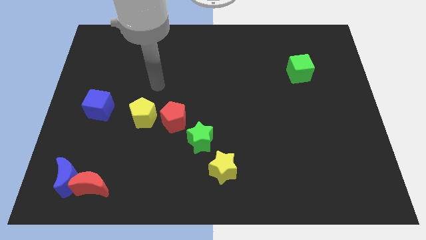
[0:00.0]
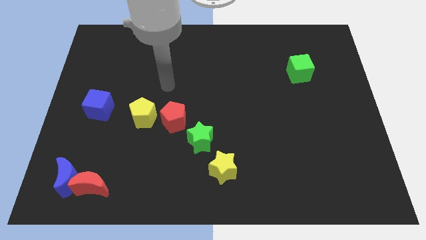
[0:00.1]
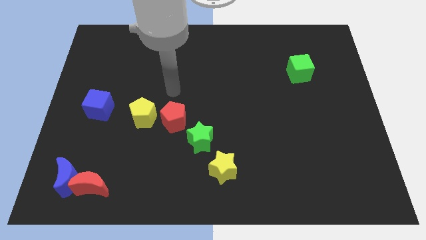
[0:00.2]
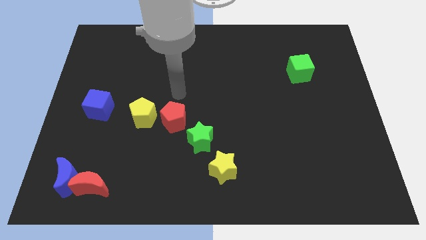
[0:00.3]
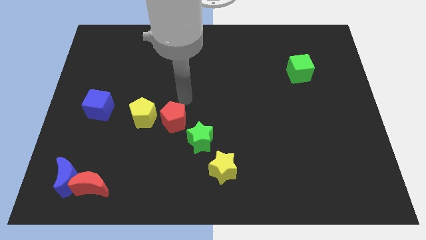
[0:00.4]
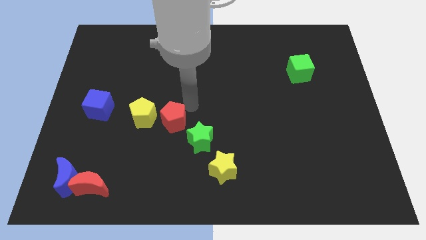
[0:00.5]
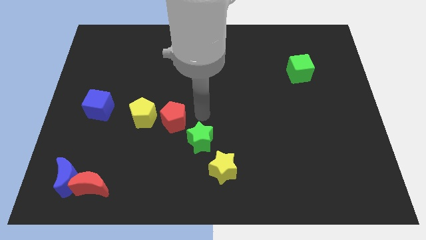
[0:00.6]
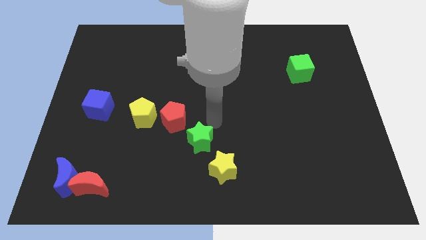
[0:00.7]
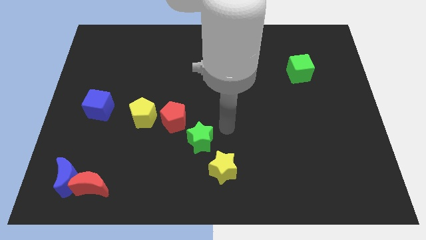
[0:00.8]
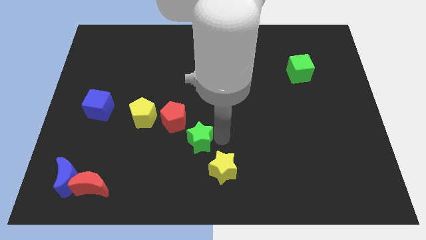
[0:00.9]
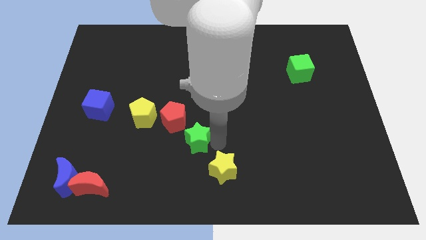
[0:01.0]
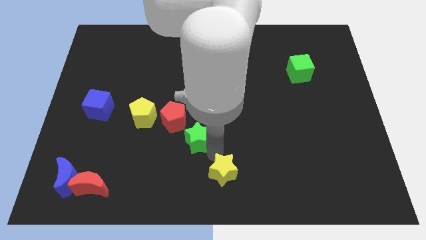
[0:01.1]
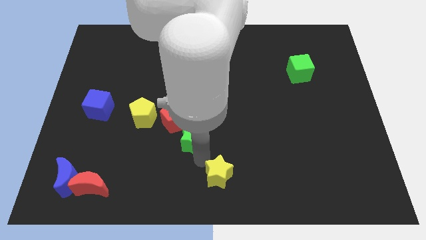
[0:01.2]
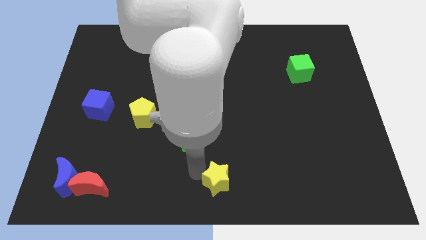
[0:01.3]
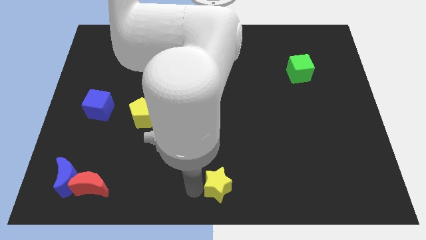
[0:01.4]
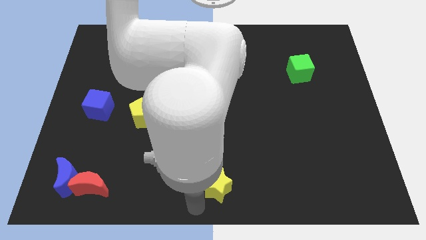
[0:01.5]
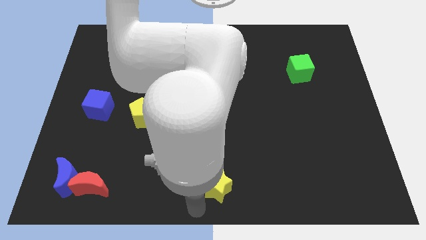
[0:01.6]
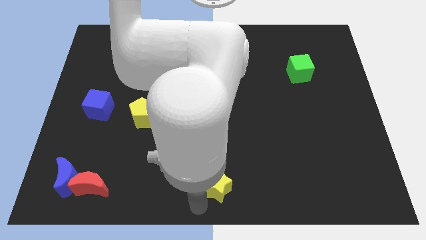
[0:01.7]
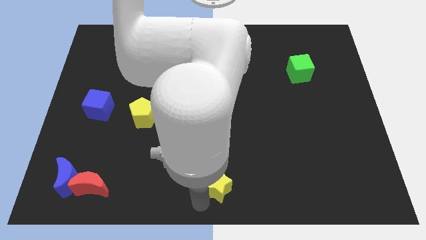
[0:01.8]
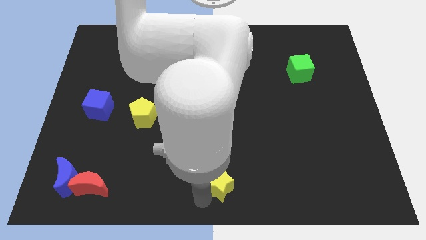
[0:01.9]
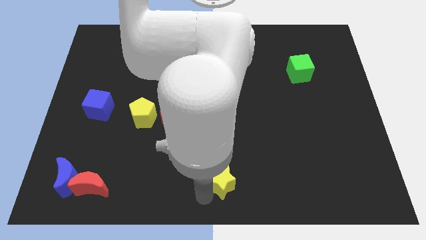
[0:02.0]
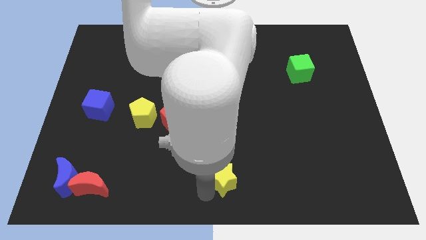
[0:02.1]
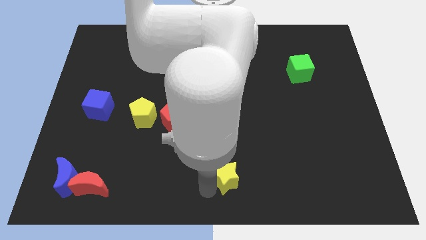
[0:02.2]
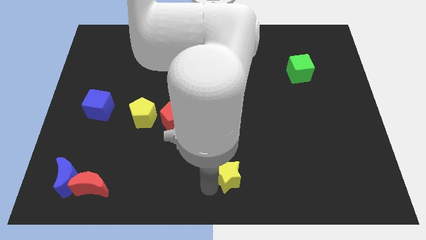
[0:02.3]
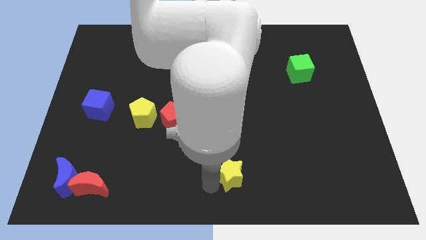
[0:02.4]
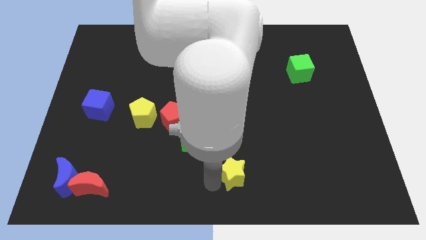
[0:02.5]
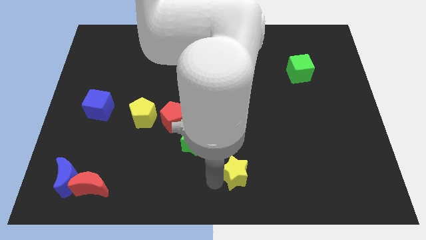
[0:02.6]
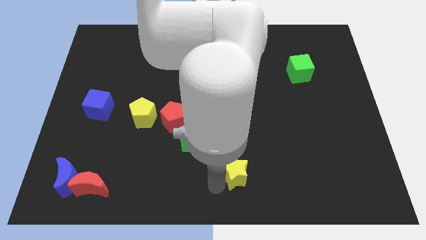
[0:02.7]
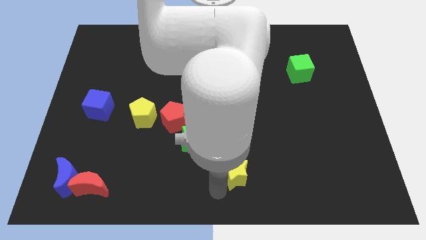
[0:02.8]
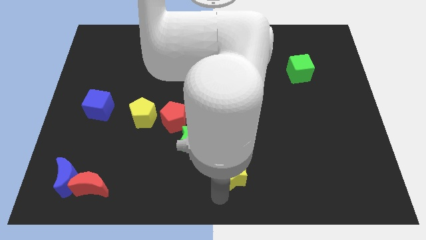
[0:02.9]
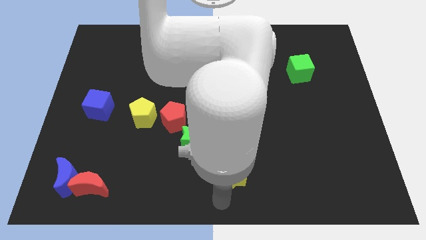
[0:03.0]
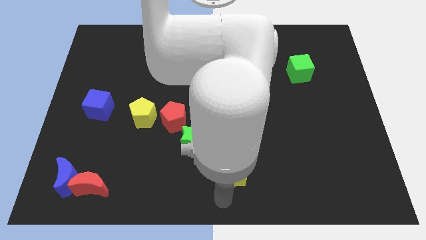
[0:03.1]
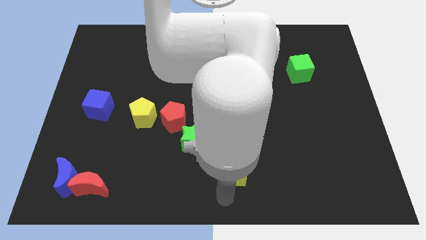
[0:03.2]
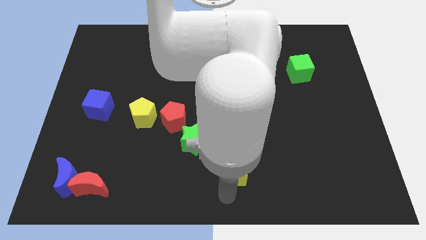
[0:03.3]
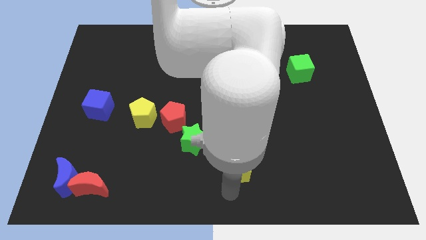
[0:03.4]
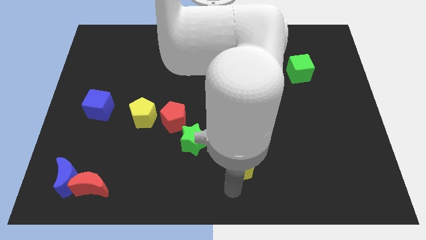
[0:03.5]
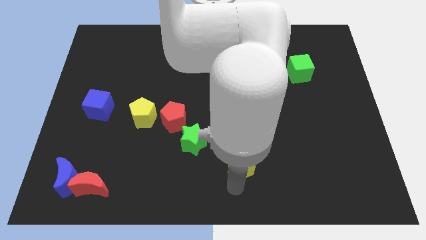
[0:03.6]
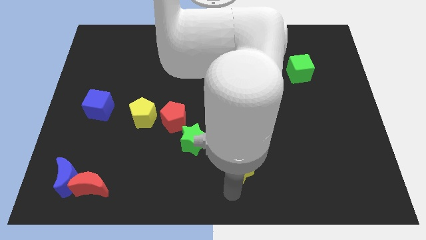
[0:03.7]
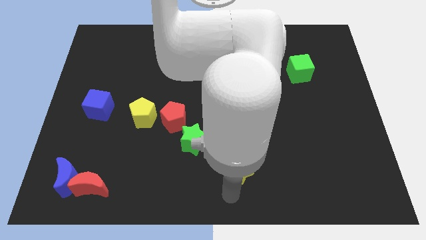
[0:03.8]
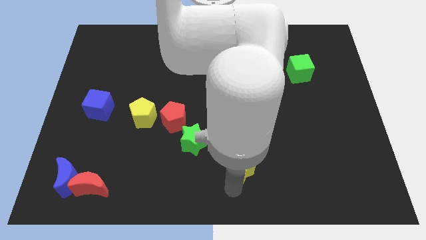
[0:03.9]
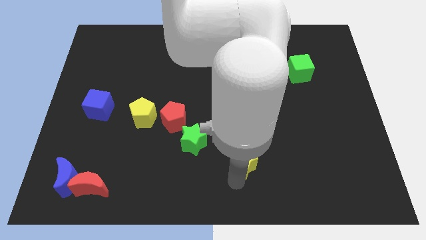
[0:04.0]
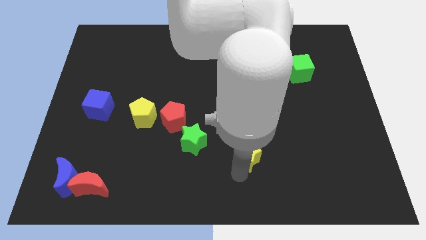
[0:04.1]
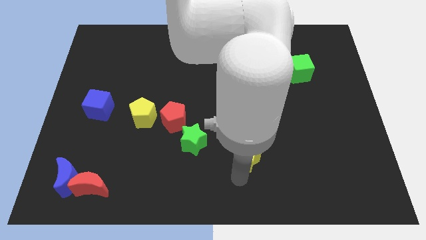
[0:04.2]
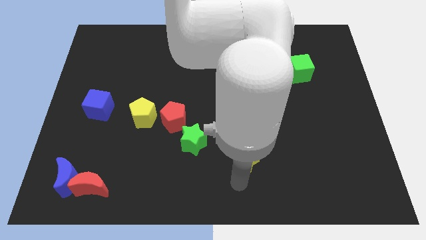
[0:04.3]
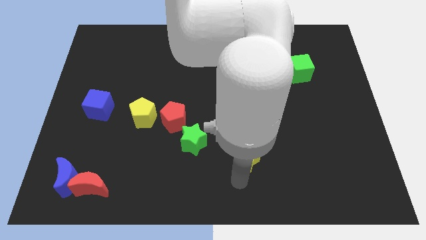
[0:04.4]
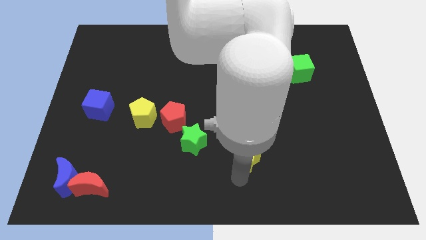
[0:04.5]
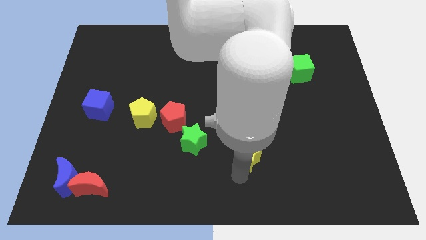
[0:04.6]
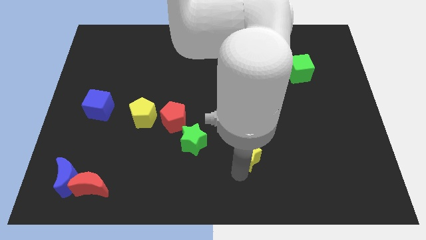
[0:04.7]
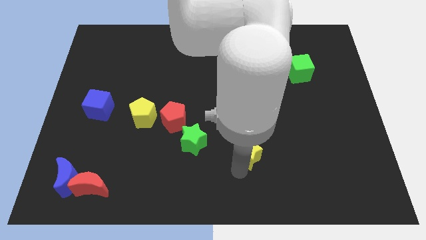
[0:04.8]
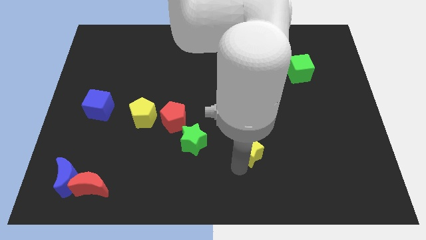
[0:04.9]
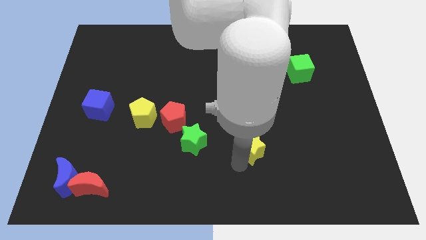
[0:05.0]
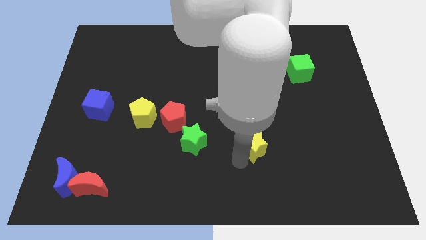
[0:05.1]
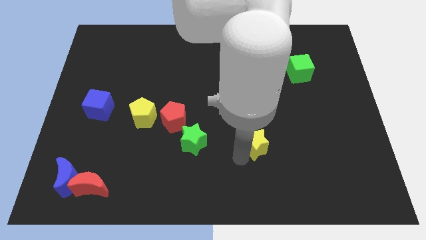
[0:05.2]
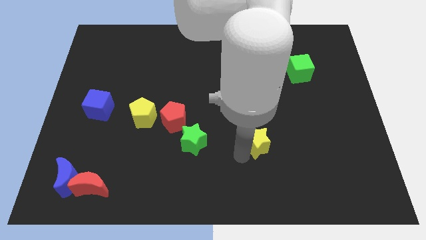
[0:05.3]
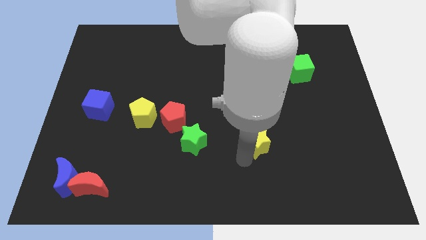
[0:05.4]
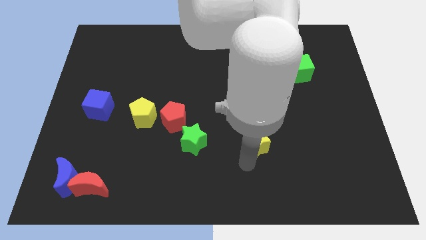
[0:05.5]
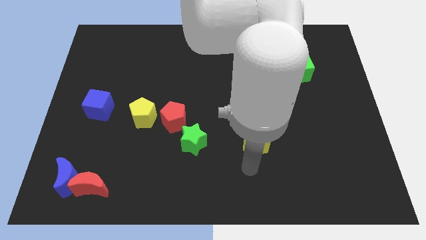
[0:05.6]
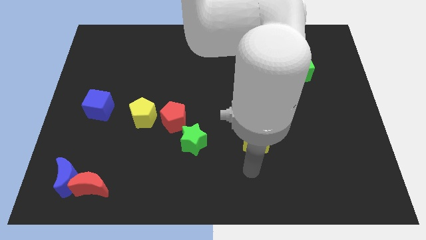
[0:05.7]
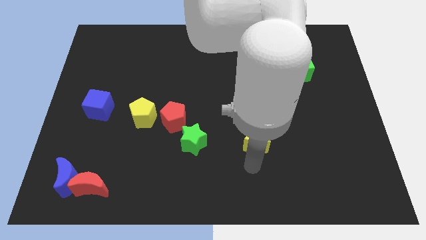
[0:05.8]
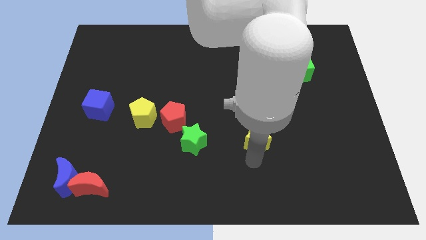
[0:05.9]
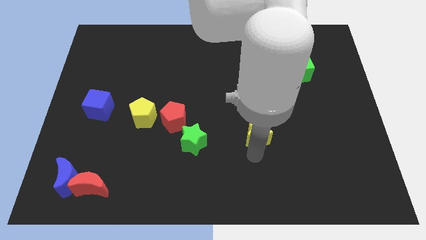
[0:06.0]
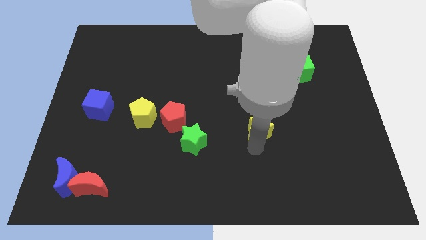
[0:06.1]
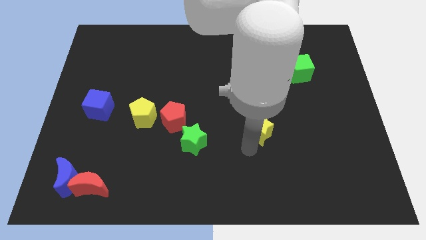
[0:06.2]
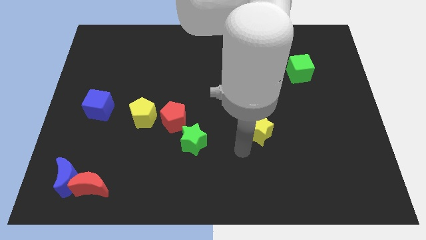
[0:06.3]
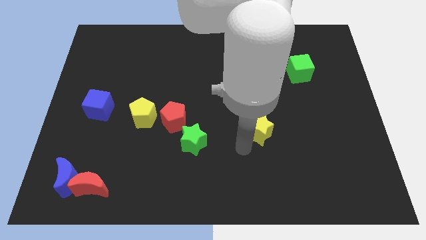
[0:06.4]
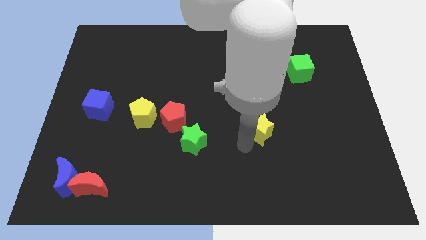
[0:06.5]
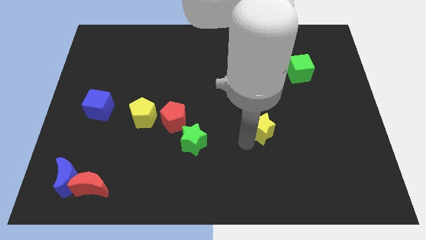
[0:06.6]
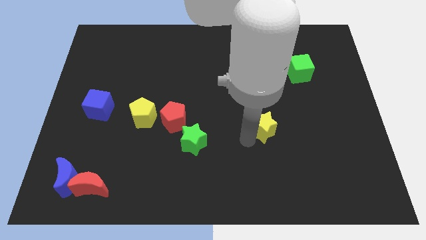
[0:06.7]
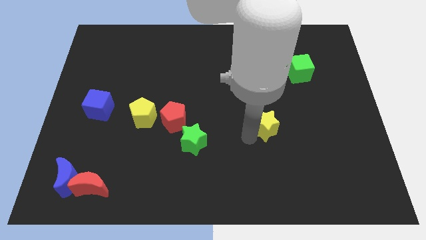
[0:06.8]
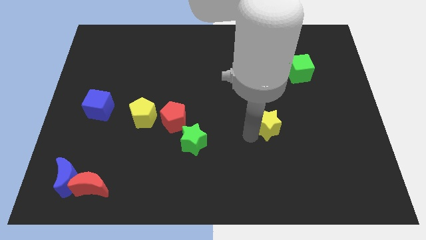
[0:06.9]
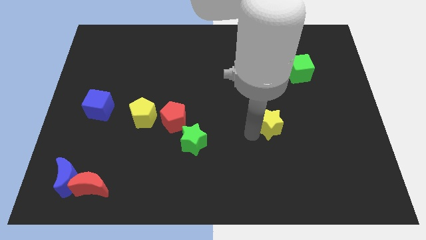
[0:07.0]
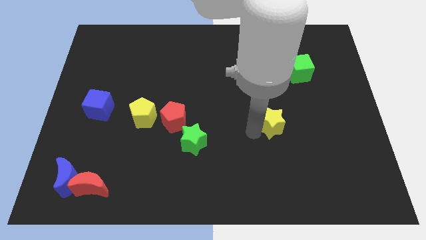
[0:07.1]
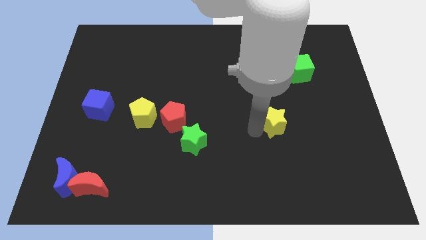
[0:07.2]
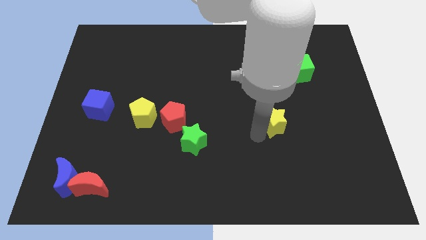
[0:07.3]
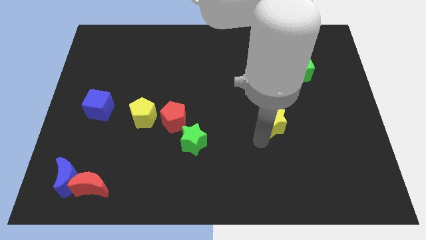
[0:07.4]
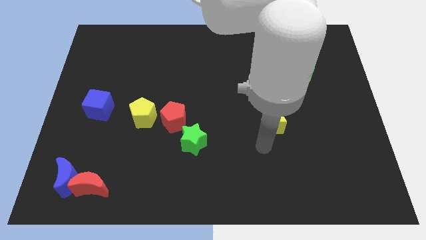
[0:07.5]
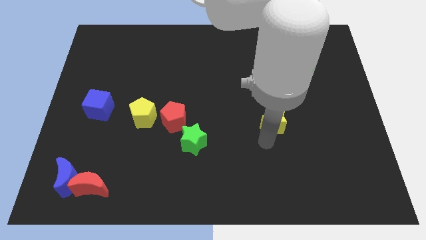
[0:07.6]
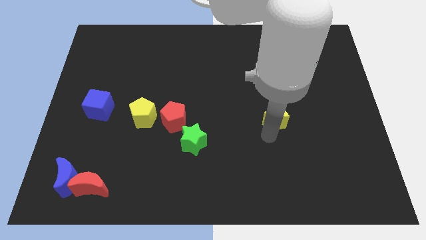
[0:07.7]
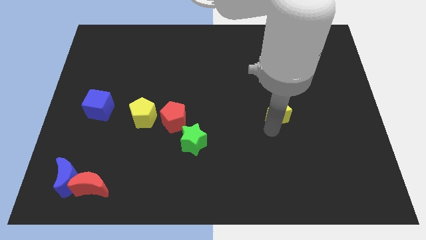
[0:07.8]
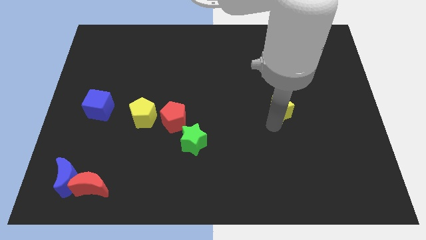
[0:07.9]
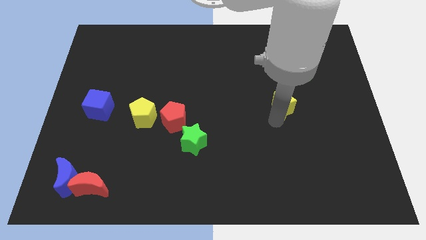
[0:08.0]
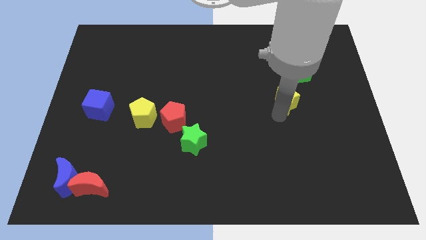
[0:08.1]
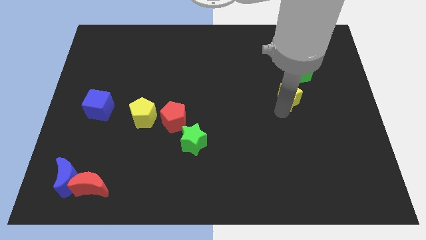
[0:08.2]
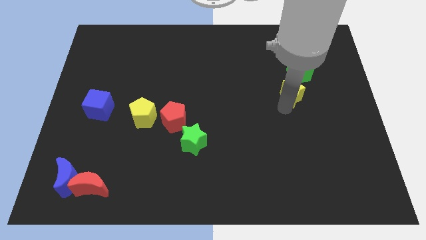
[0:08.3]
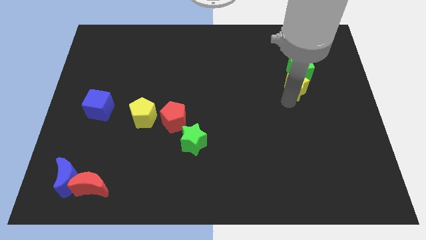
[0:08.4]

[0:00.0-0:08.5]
move the yellow star to the green cube
